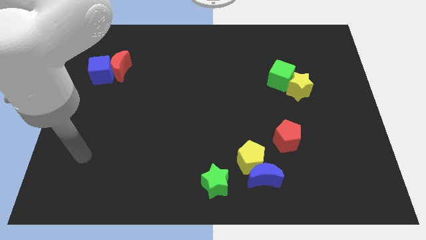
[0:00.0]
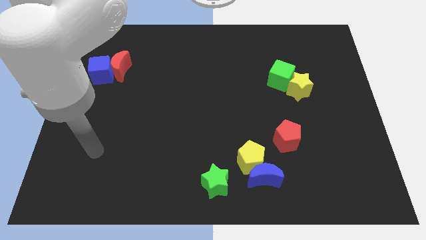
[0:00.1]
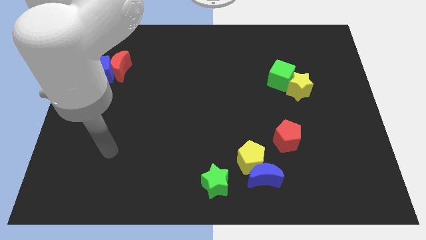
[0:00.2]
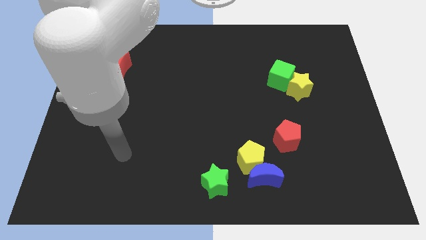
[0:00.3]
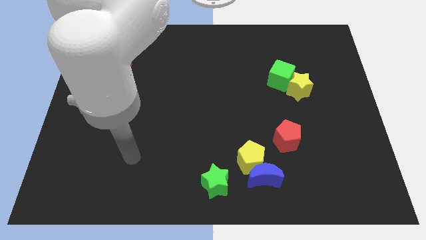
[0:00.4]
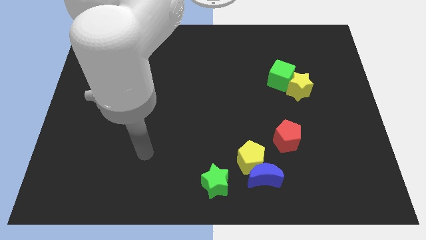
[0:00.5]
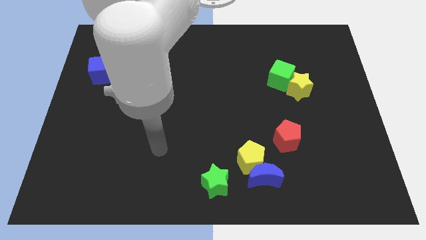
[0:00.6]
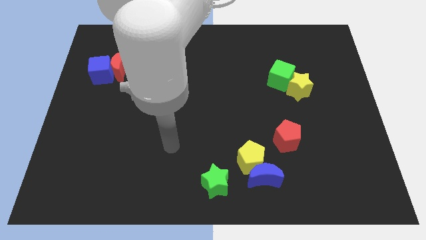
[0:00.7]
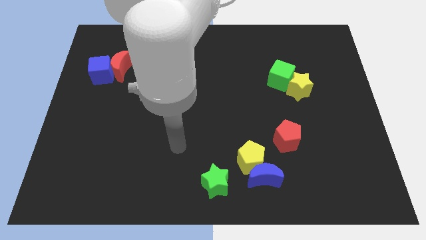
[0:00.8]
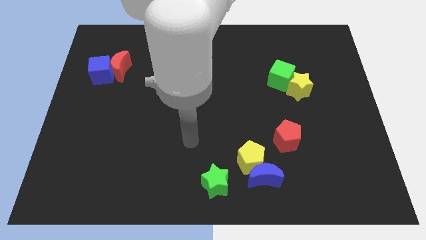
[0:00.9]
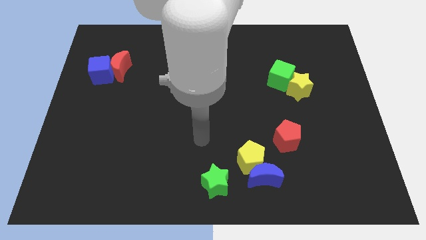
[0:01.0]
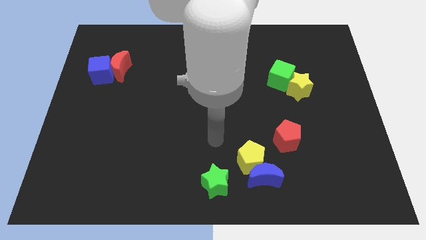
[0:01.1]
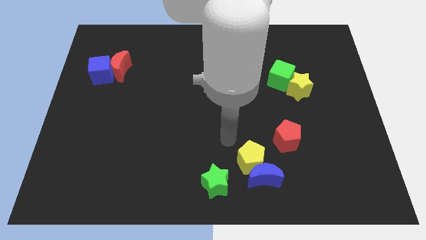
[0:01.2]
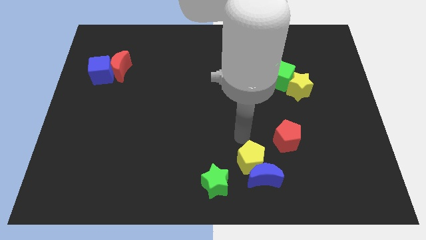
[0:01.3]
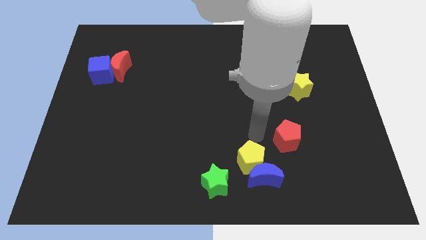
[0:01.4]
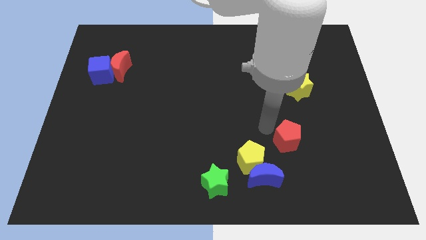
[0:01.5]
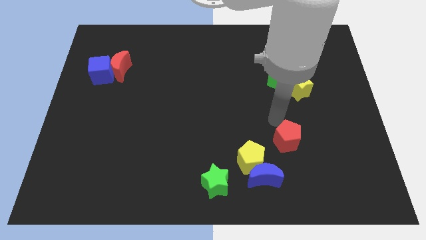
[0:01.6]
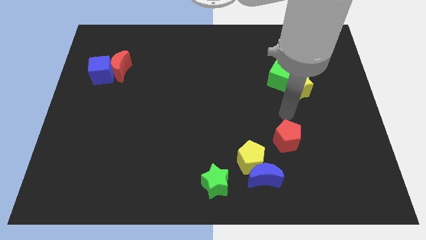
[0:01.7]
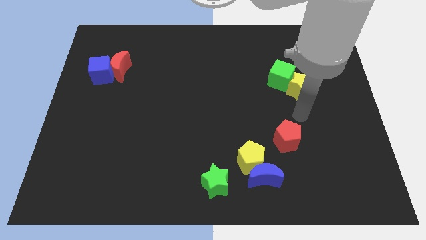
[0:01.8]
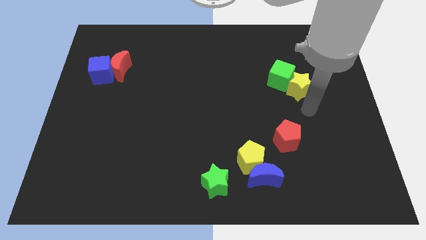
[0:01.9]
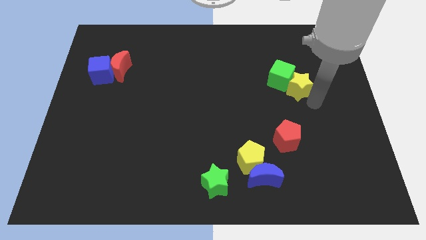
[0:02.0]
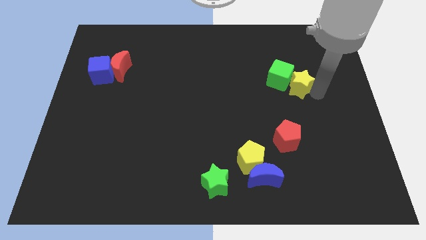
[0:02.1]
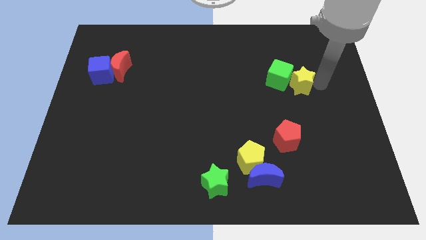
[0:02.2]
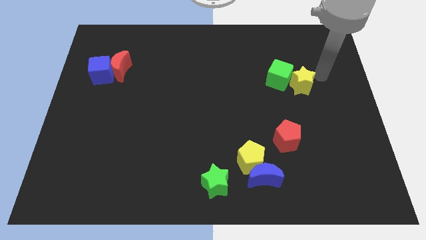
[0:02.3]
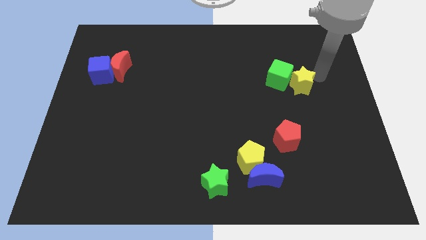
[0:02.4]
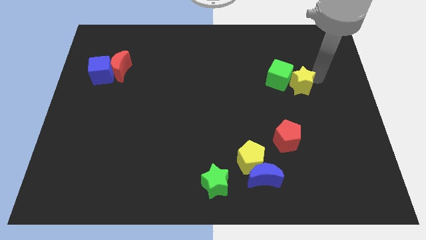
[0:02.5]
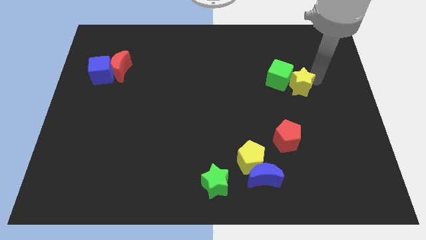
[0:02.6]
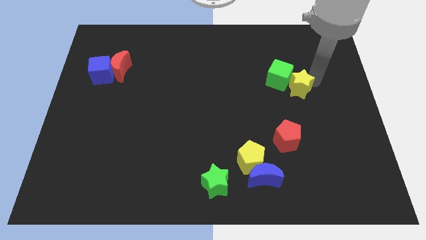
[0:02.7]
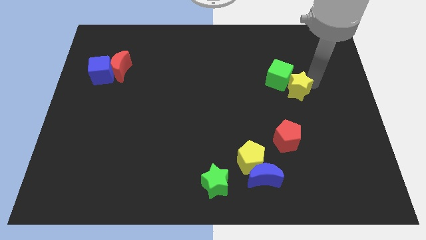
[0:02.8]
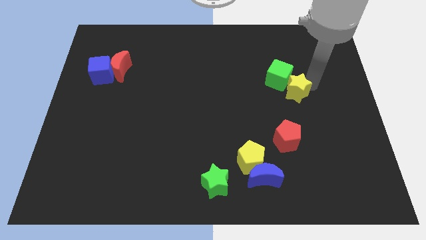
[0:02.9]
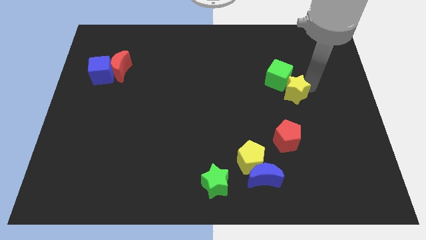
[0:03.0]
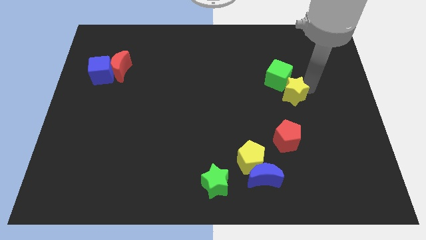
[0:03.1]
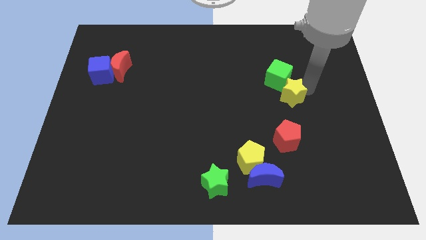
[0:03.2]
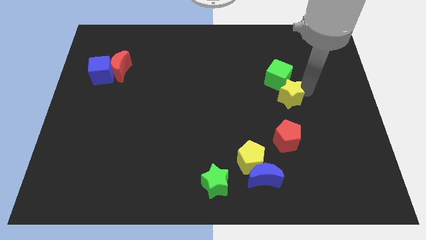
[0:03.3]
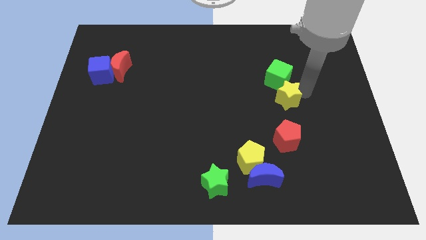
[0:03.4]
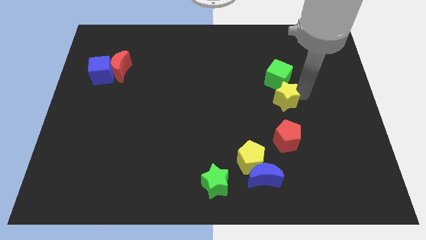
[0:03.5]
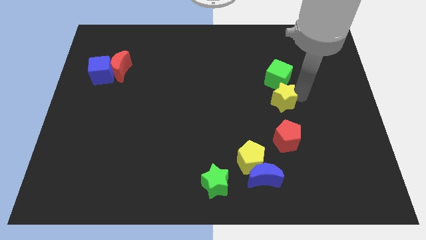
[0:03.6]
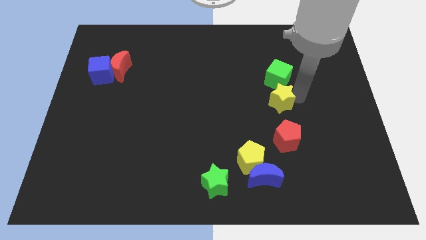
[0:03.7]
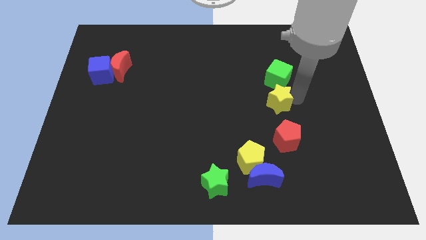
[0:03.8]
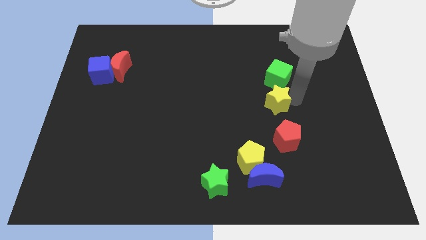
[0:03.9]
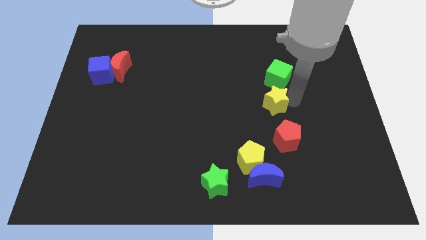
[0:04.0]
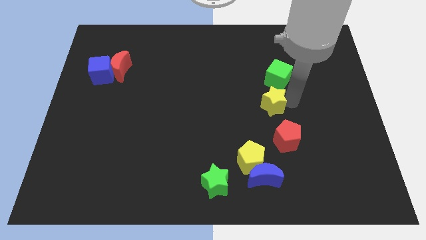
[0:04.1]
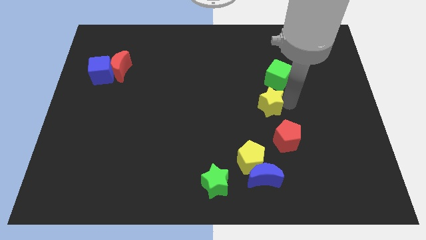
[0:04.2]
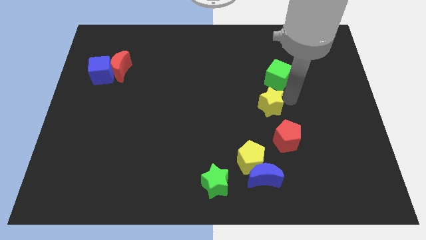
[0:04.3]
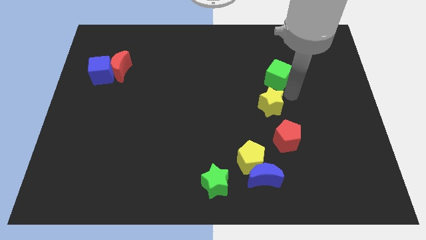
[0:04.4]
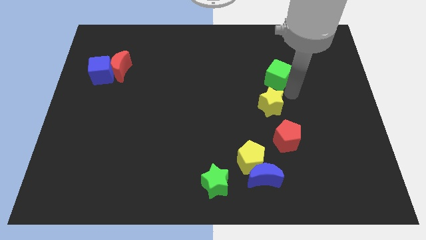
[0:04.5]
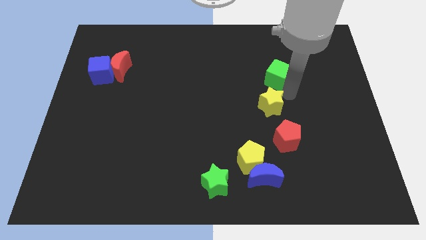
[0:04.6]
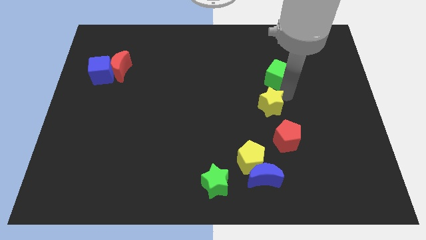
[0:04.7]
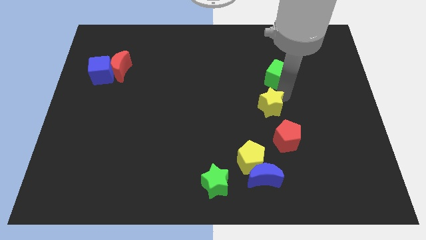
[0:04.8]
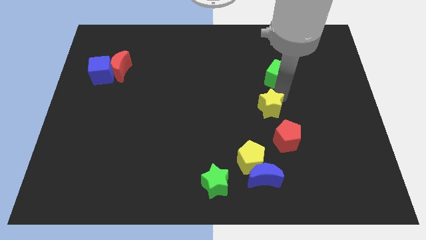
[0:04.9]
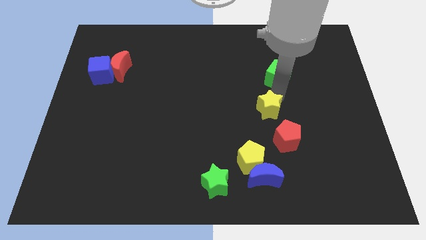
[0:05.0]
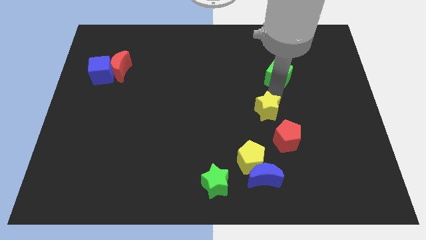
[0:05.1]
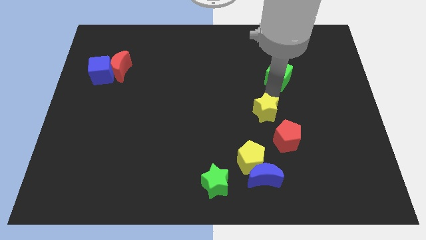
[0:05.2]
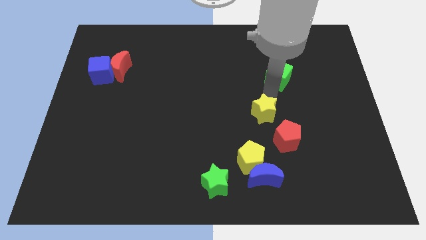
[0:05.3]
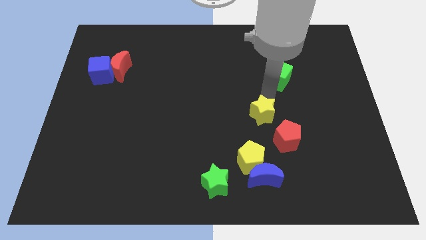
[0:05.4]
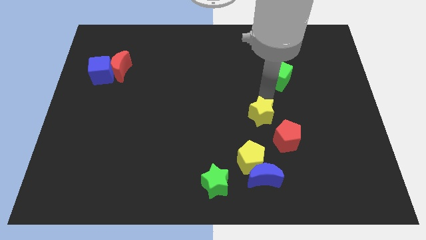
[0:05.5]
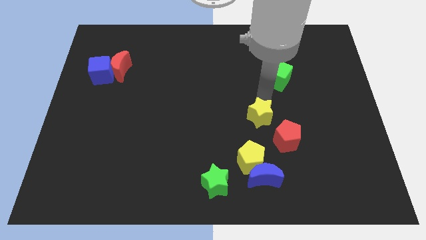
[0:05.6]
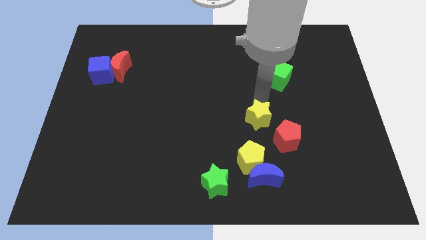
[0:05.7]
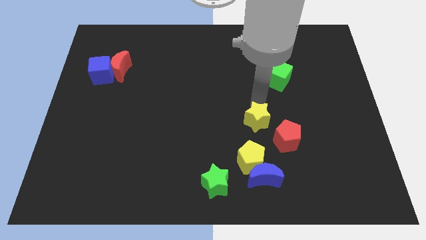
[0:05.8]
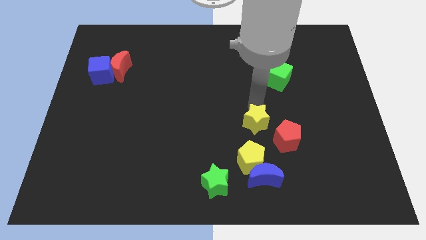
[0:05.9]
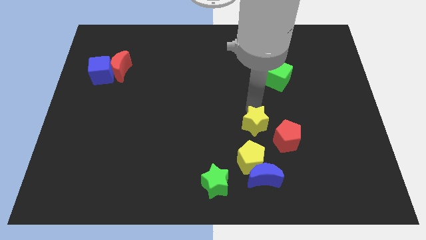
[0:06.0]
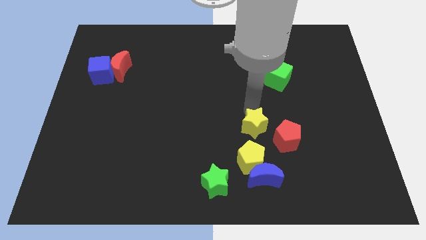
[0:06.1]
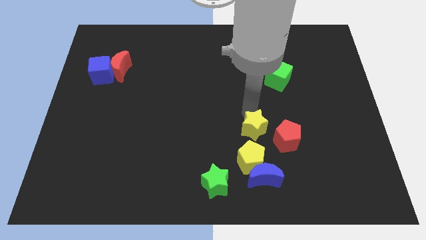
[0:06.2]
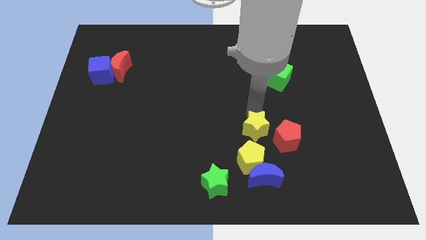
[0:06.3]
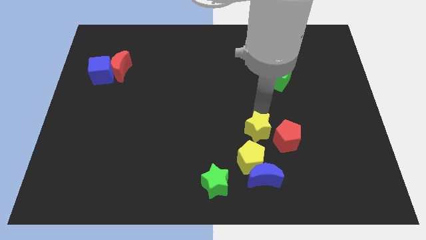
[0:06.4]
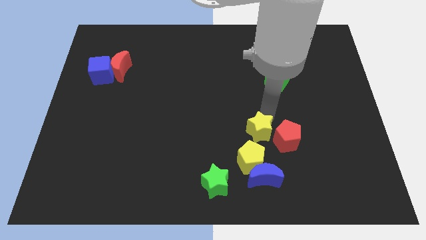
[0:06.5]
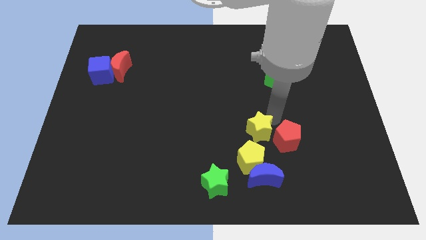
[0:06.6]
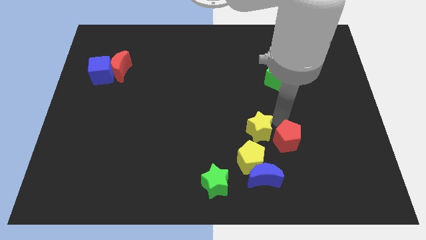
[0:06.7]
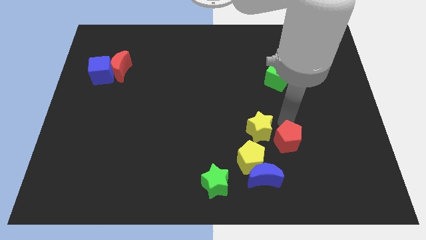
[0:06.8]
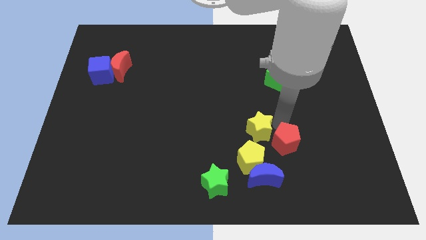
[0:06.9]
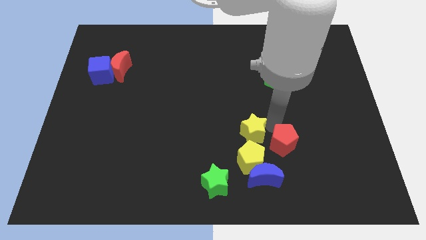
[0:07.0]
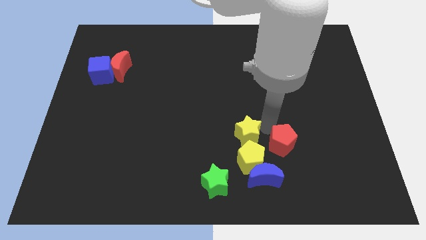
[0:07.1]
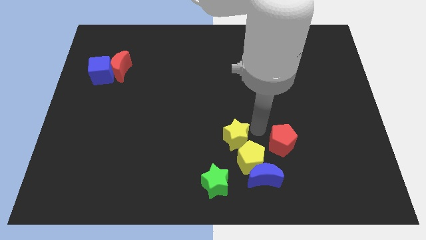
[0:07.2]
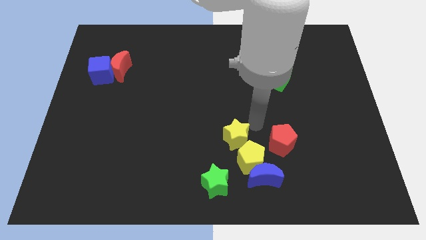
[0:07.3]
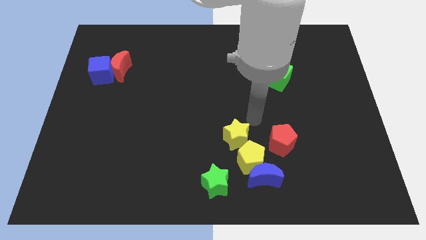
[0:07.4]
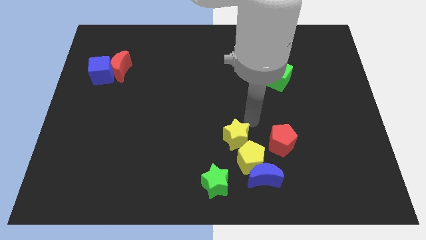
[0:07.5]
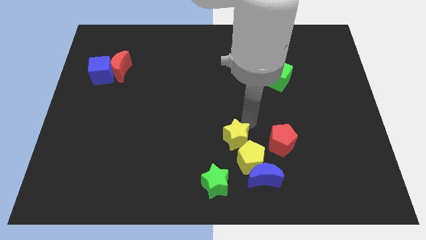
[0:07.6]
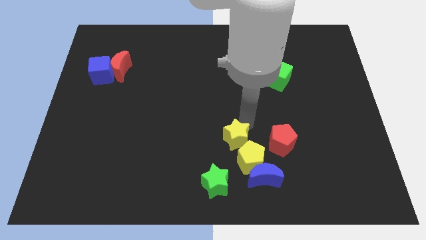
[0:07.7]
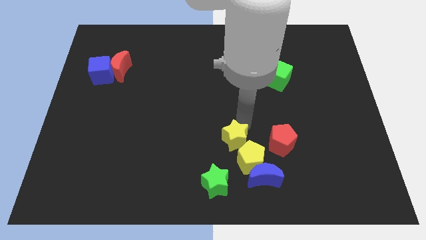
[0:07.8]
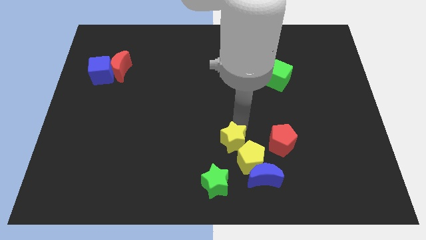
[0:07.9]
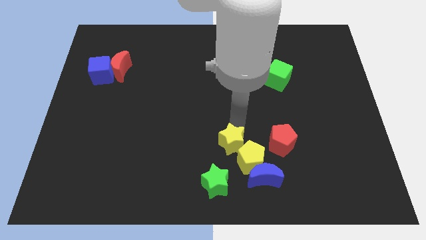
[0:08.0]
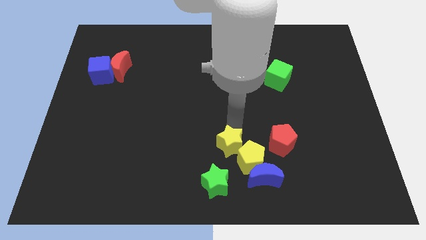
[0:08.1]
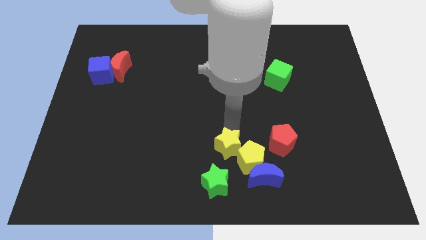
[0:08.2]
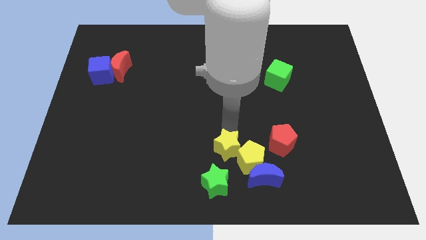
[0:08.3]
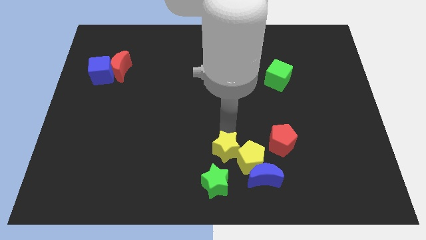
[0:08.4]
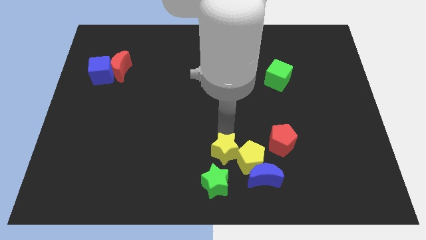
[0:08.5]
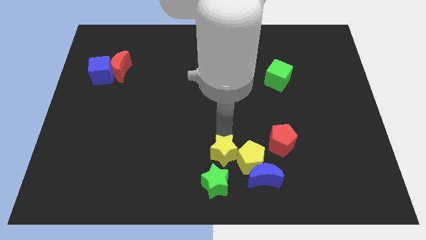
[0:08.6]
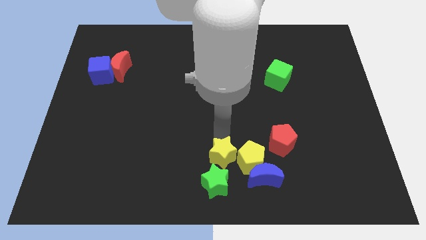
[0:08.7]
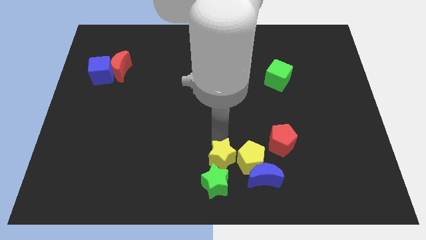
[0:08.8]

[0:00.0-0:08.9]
slide the yellow star to the left of the blue moon
